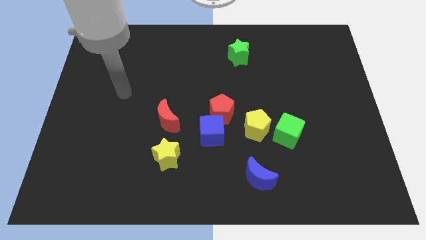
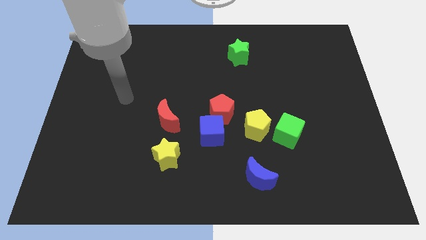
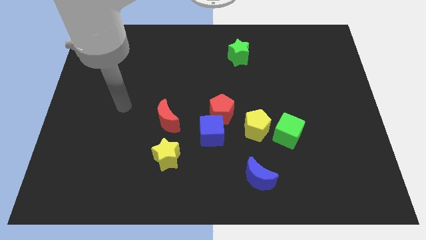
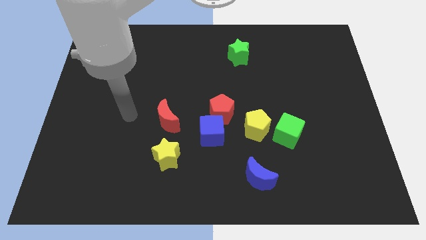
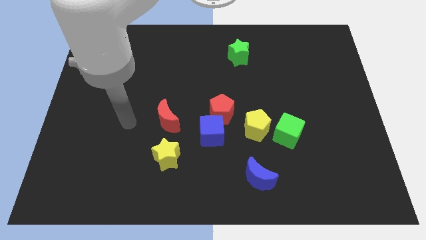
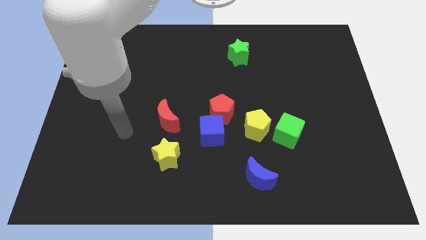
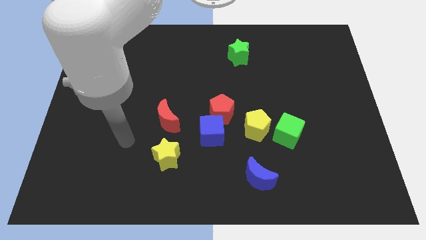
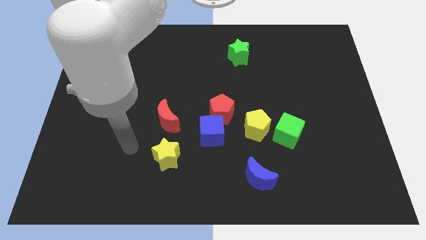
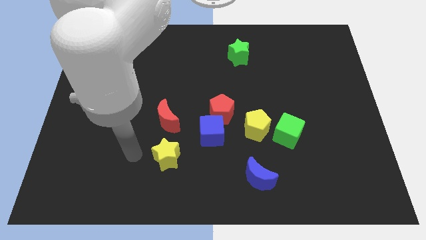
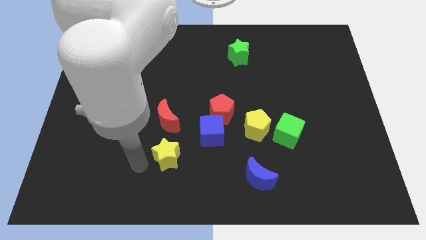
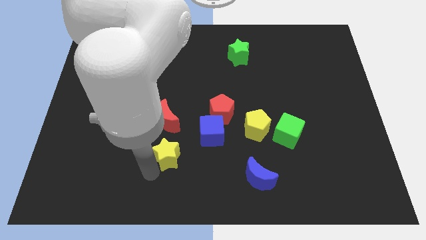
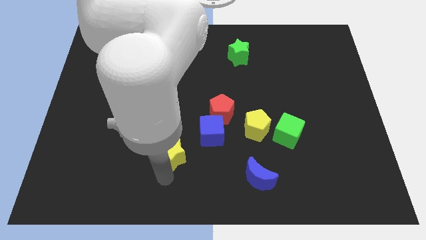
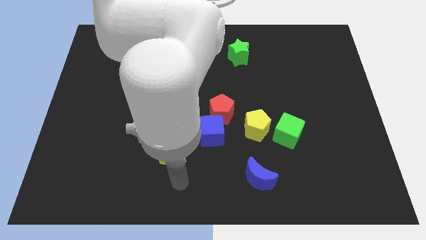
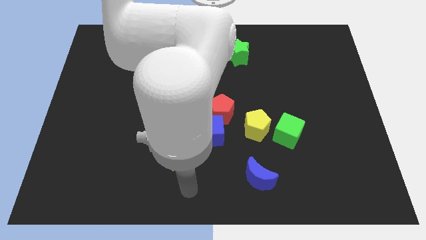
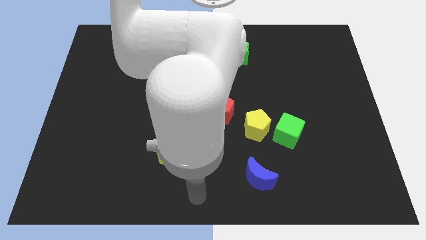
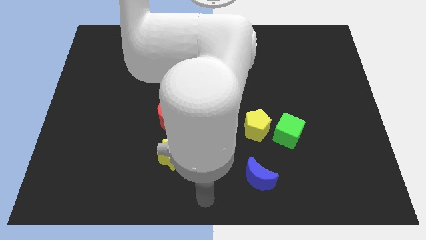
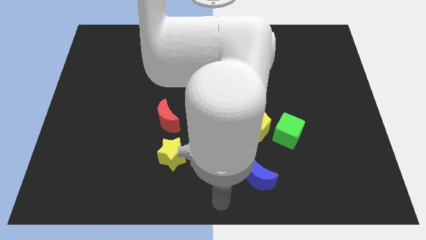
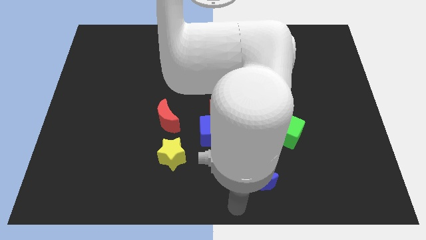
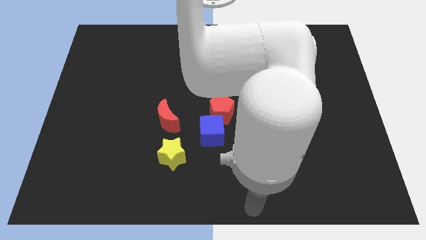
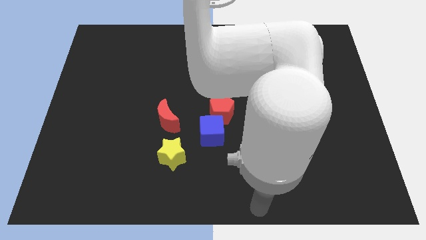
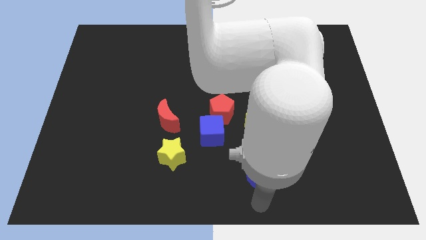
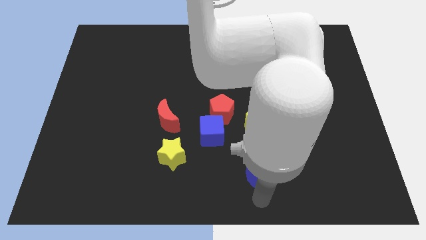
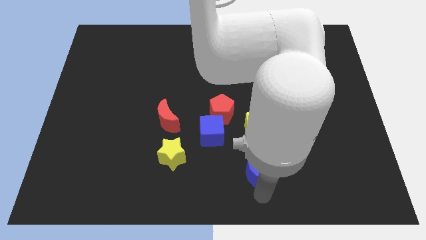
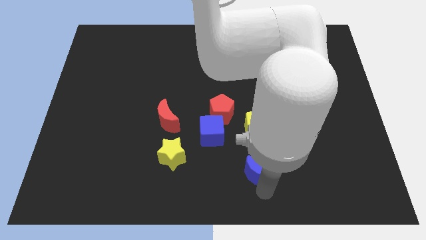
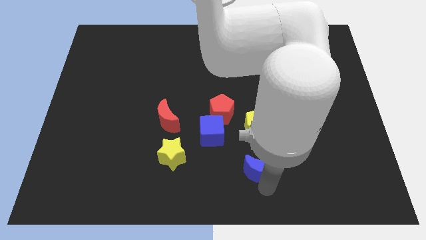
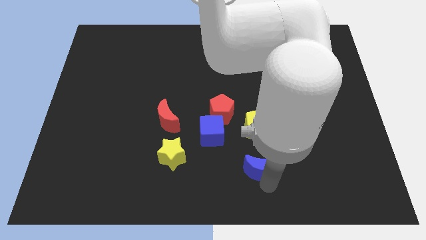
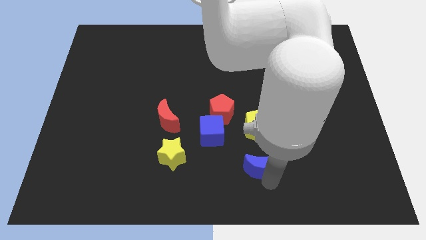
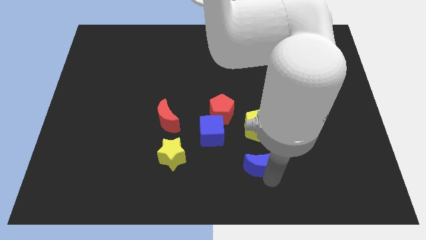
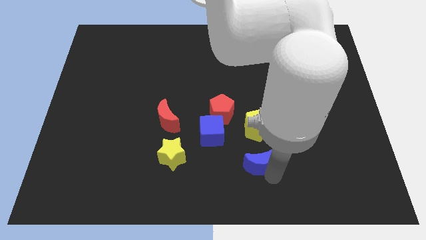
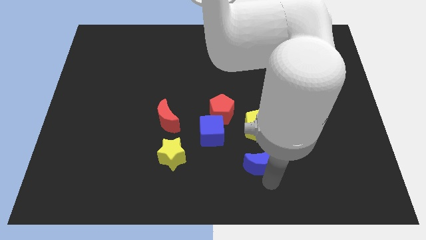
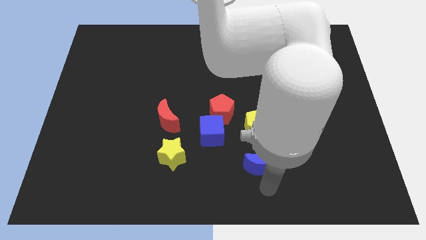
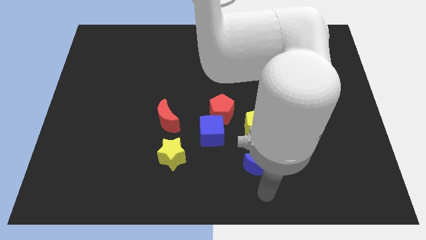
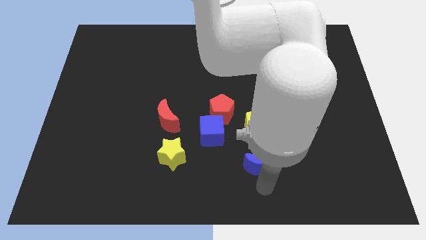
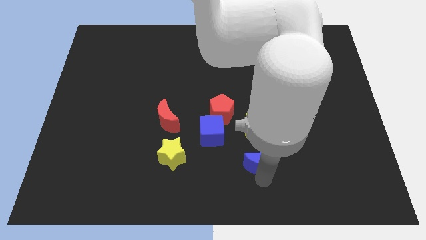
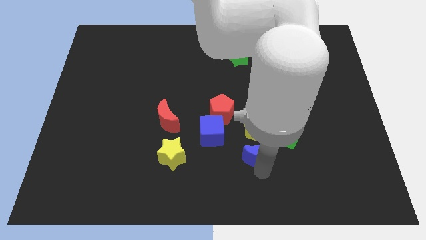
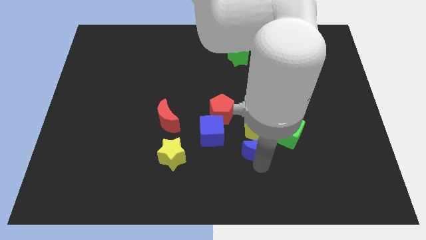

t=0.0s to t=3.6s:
put the blue moon towards the yellow pentagon

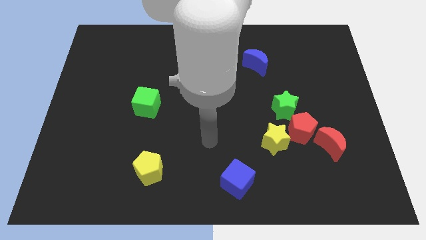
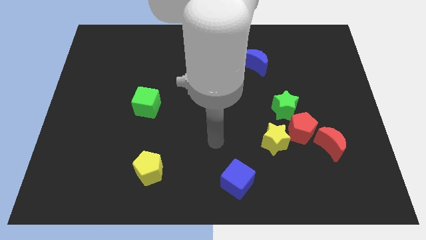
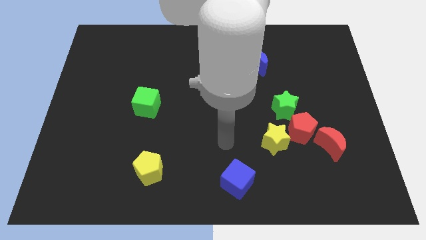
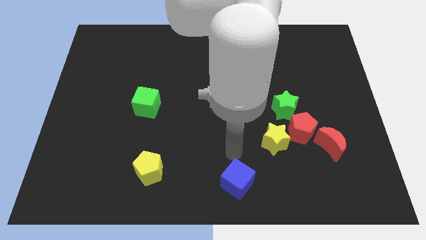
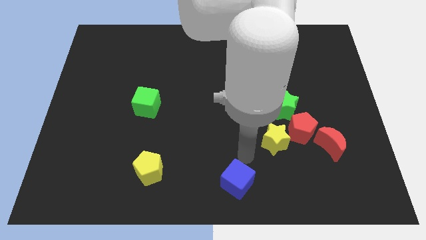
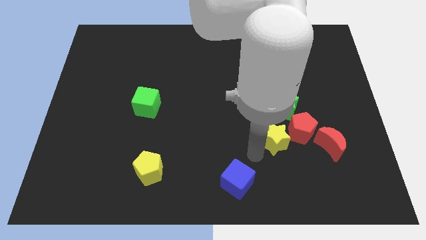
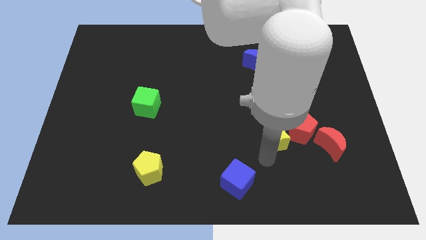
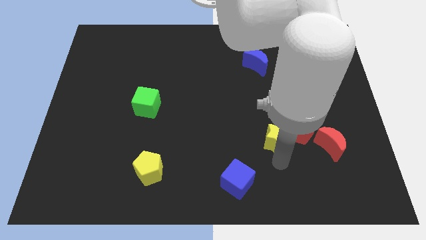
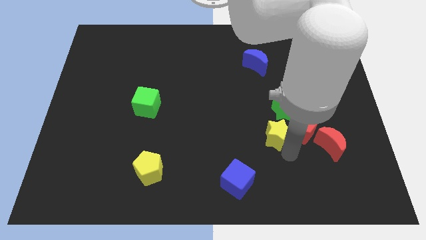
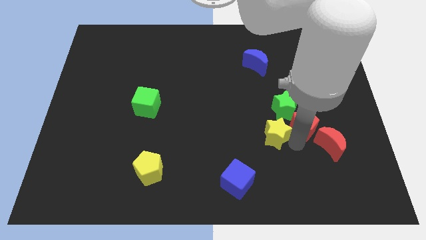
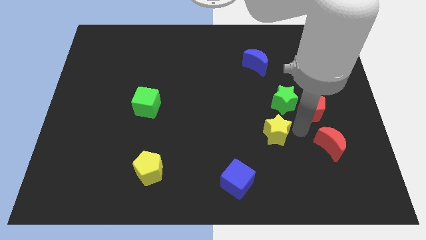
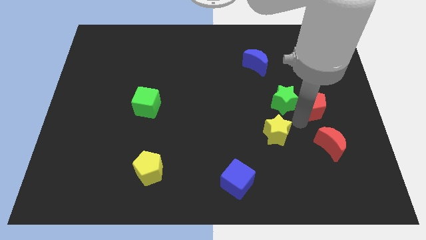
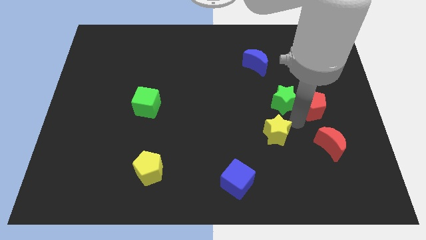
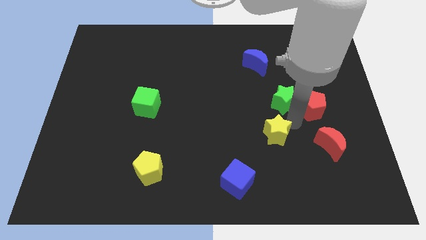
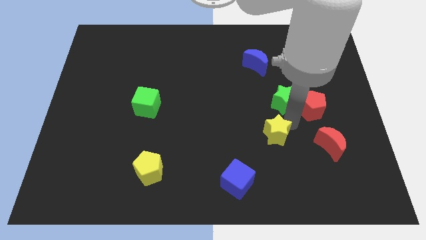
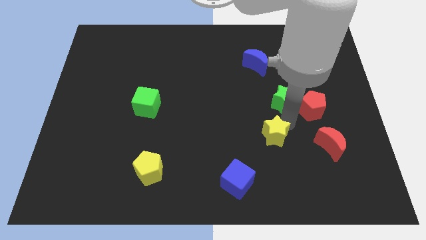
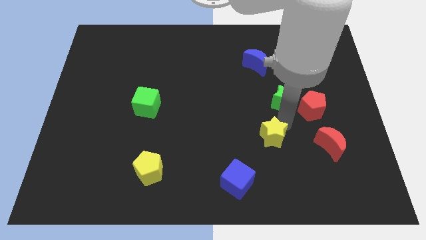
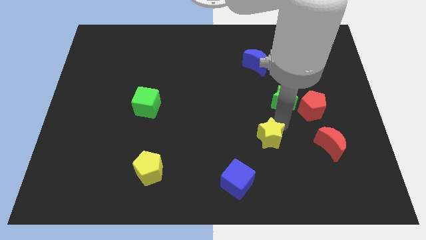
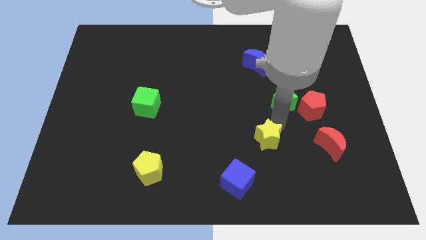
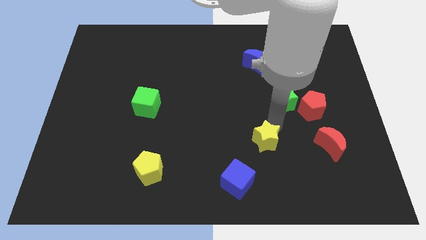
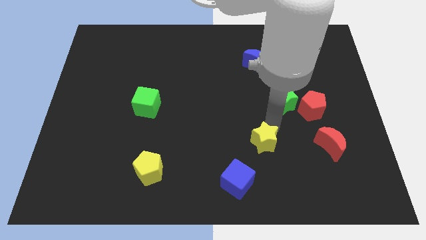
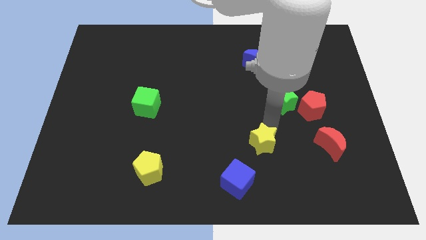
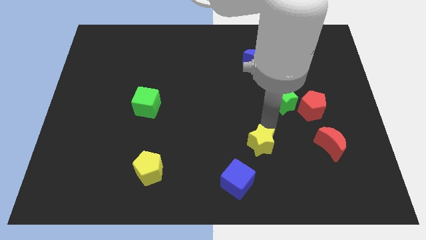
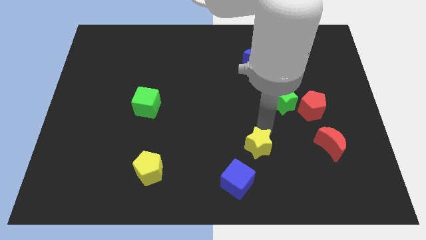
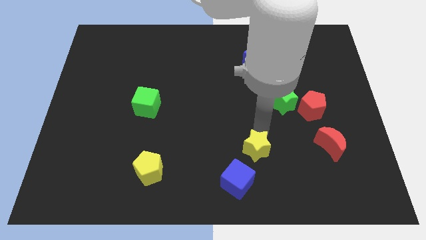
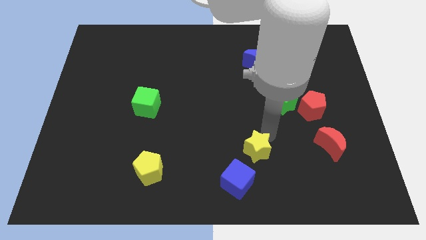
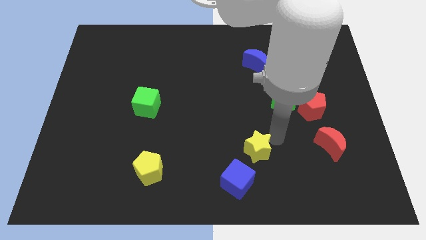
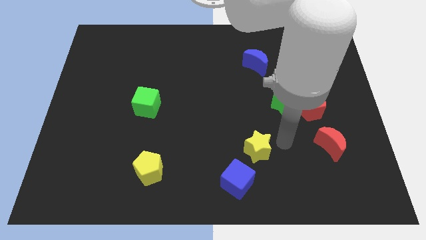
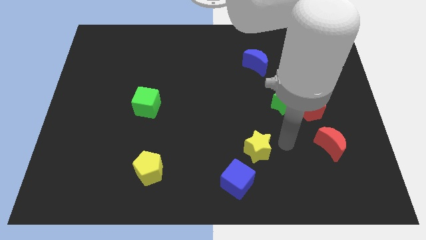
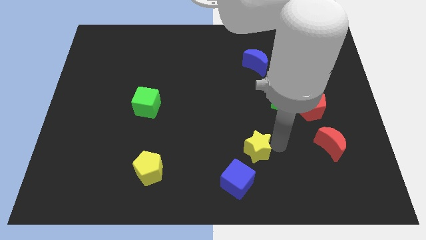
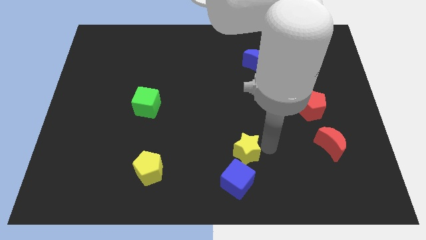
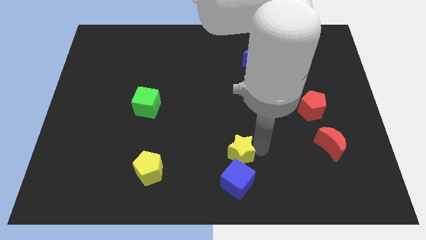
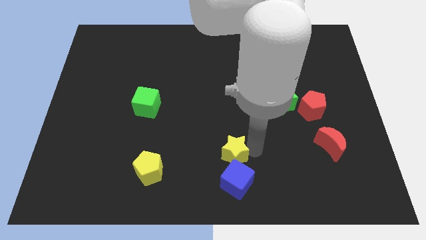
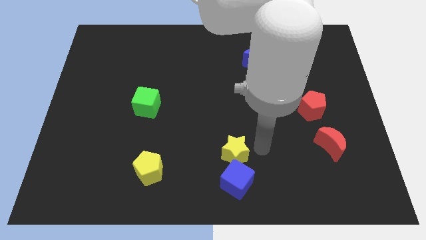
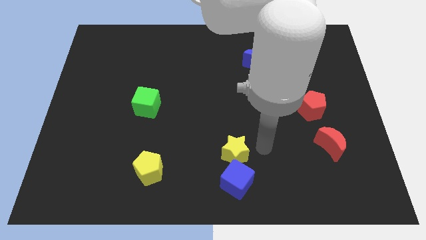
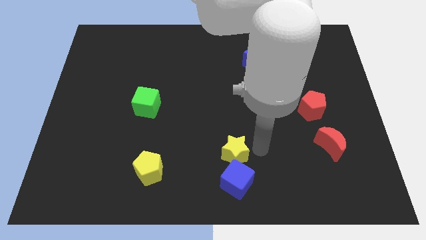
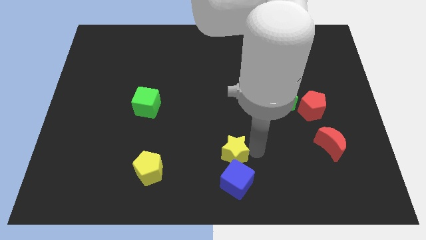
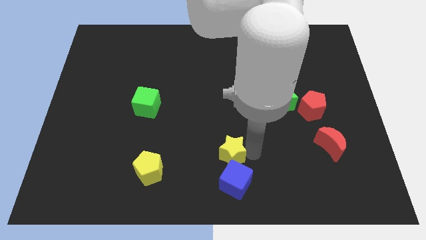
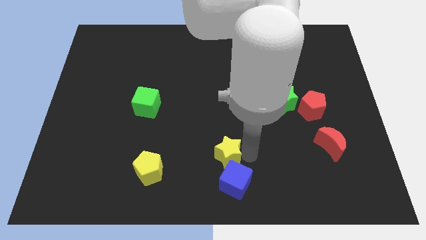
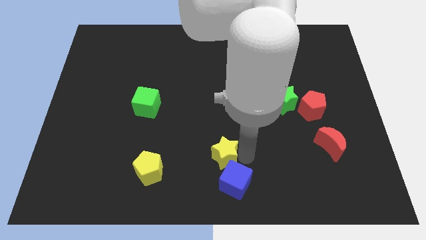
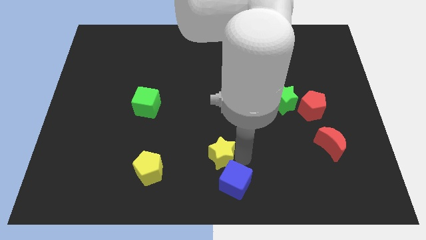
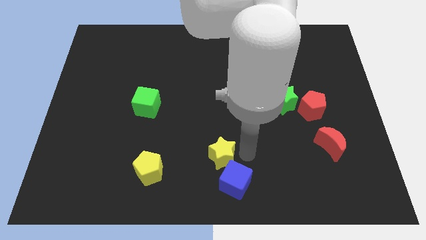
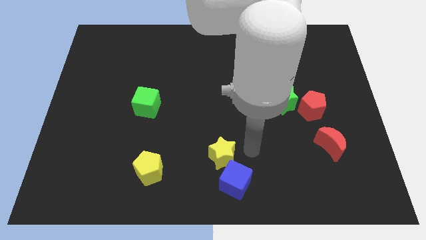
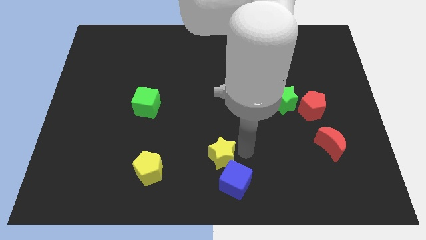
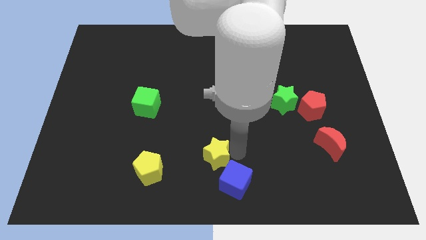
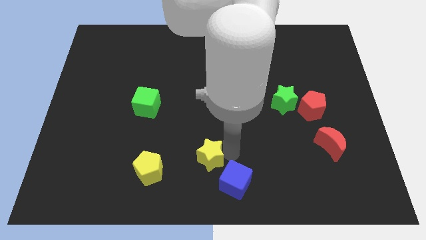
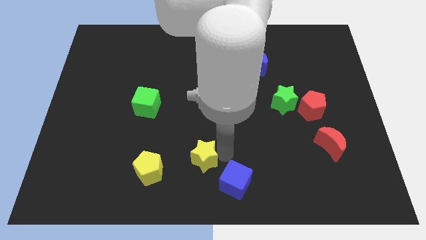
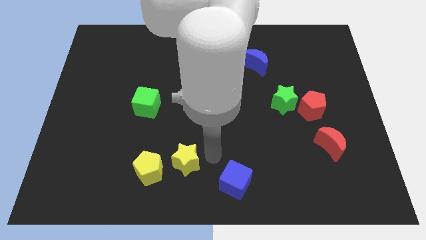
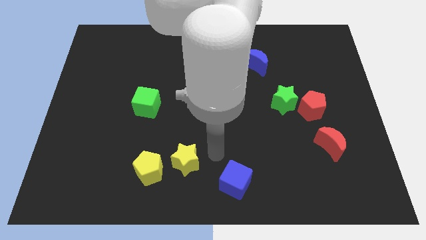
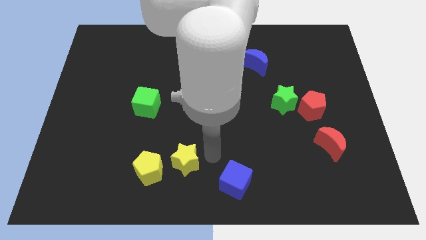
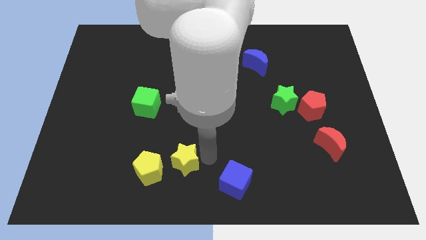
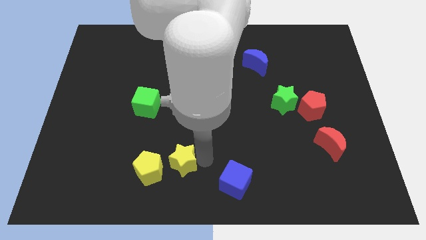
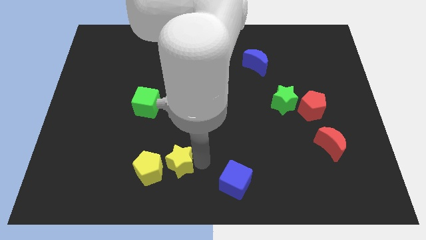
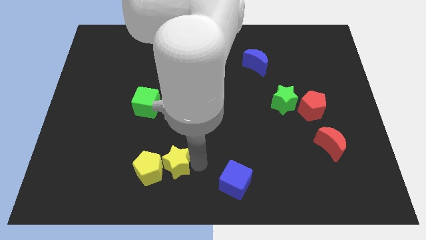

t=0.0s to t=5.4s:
move the yellow star next to the yellow pentagon
